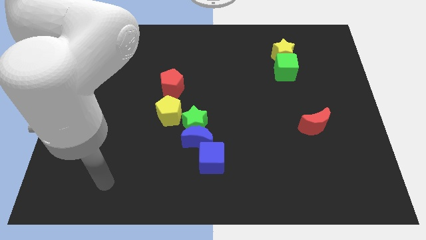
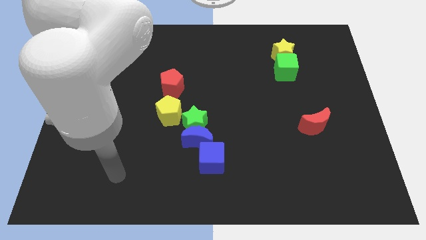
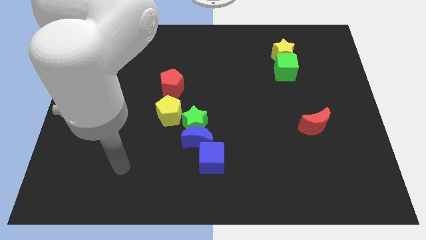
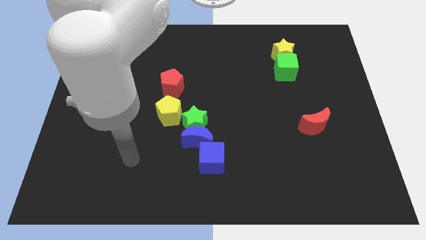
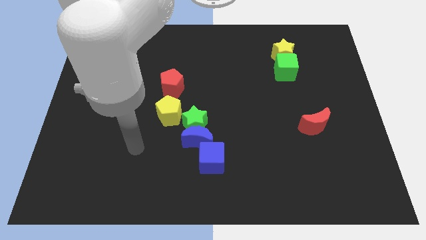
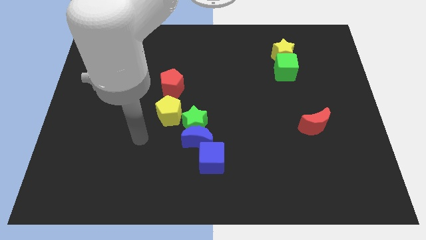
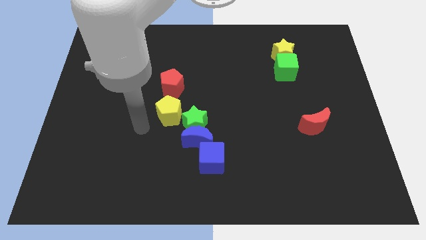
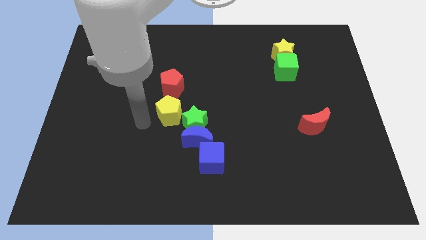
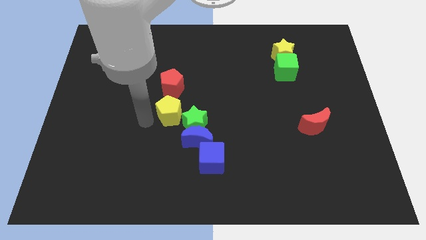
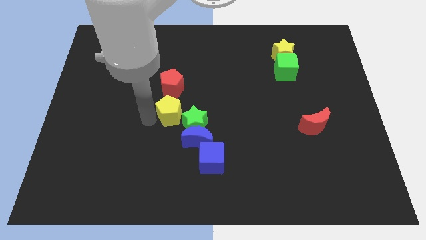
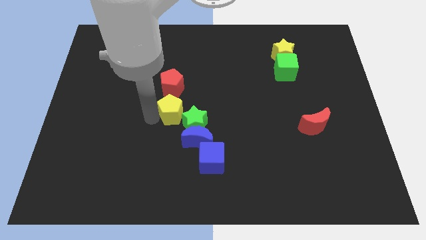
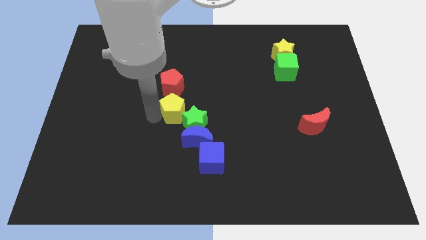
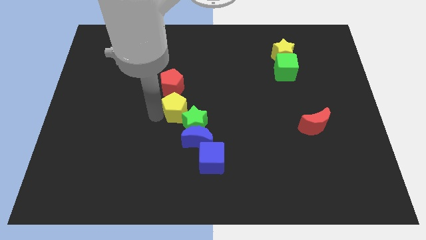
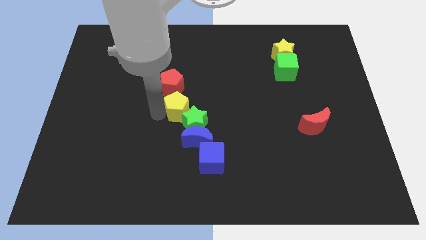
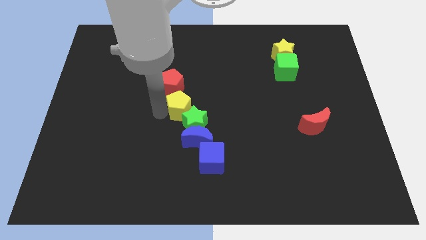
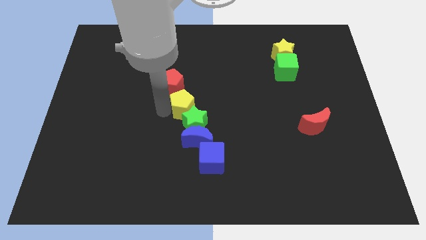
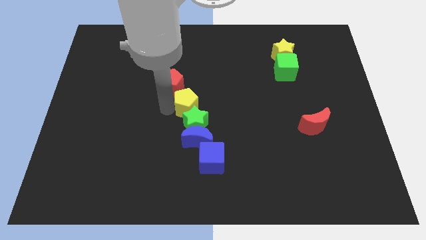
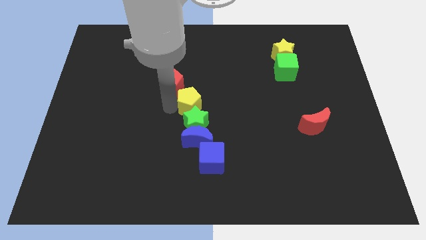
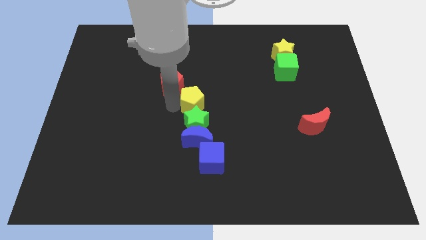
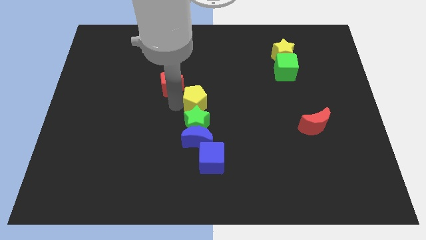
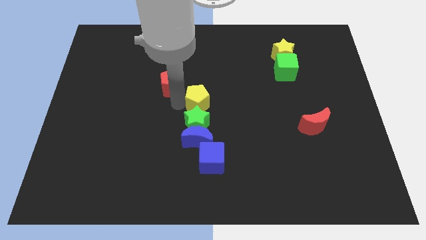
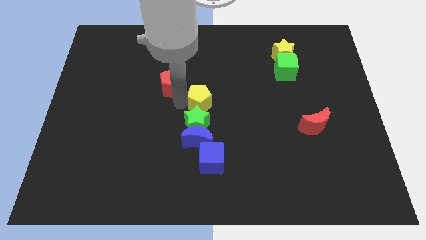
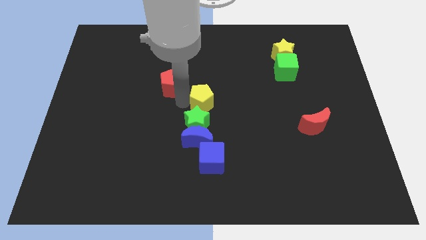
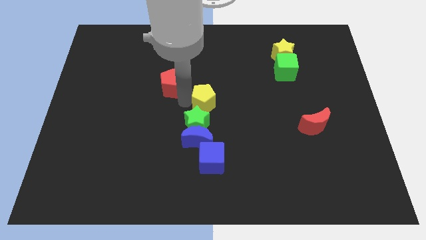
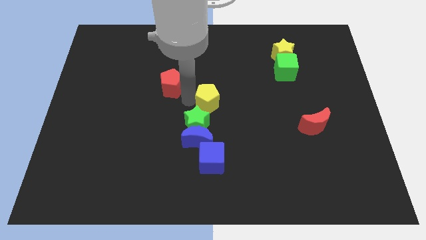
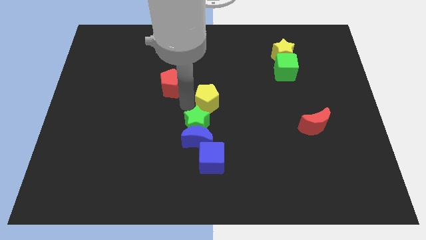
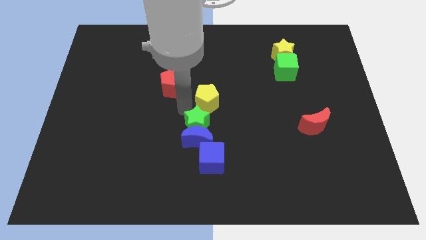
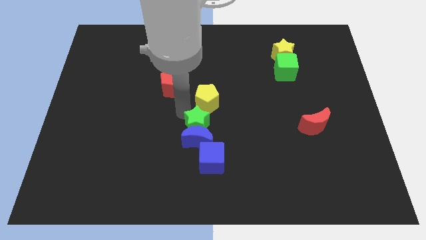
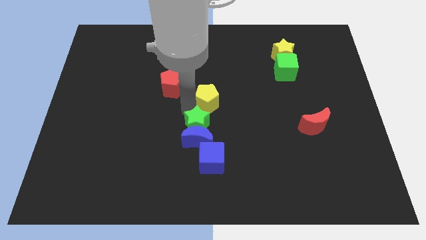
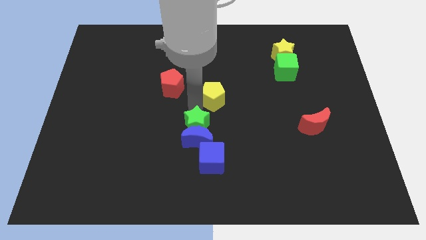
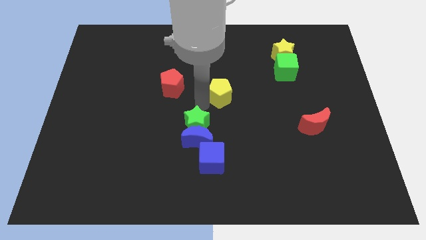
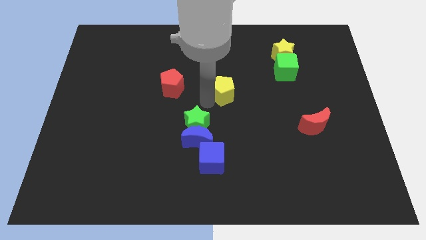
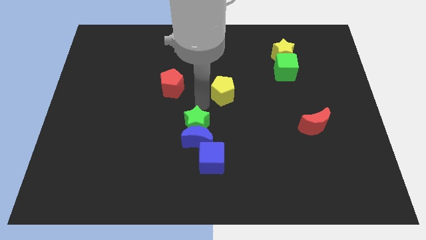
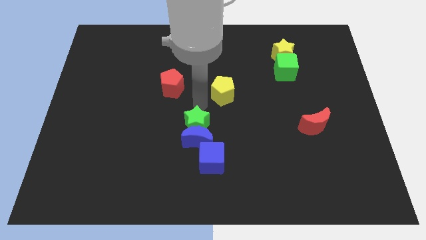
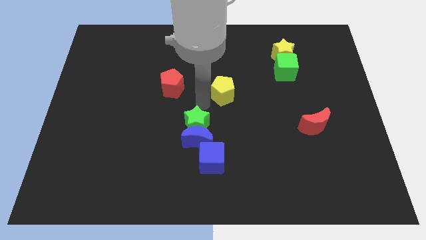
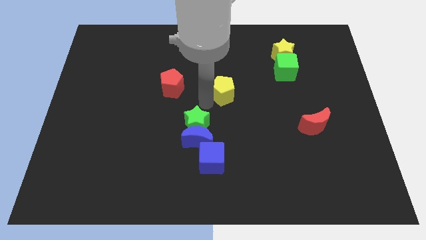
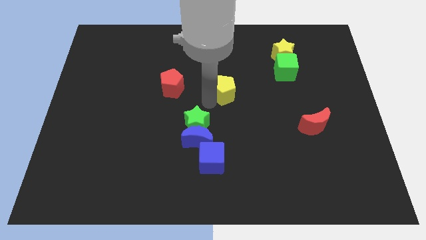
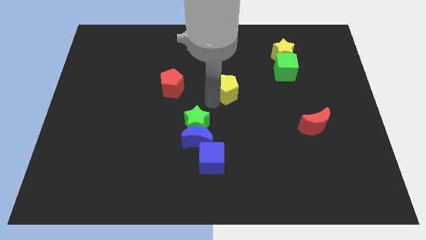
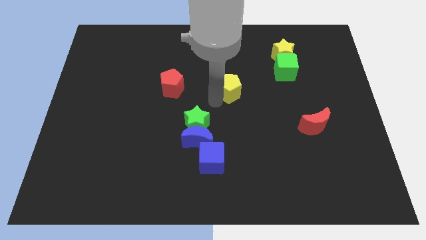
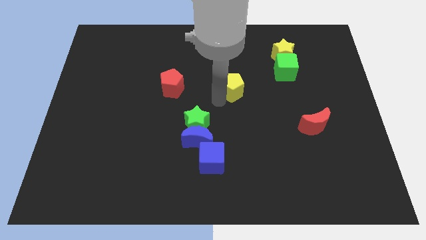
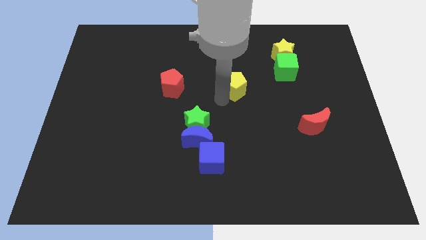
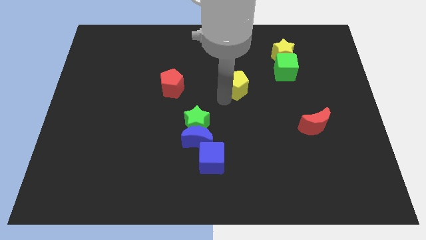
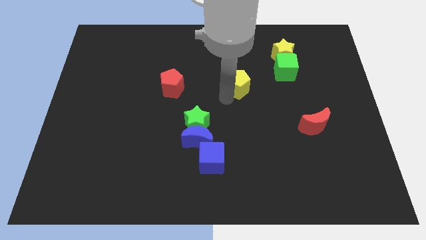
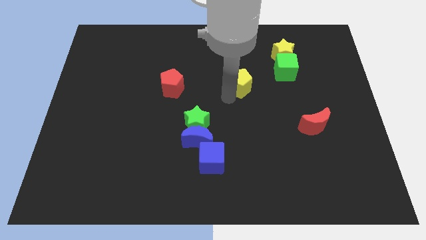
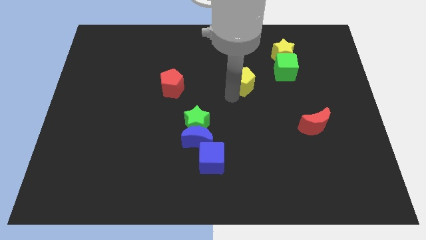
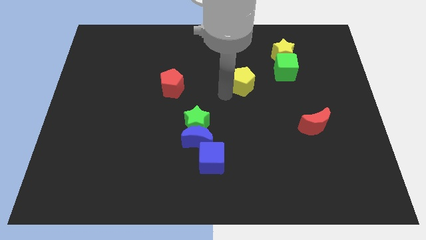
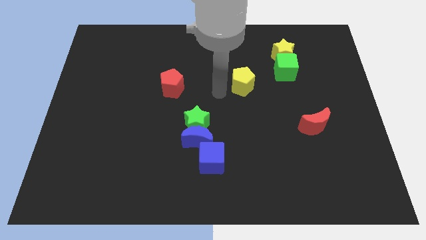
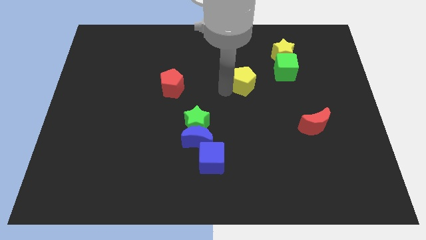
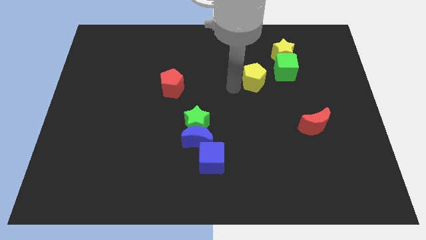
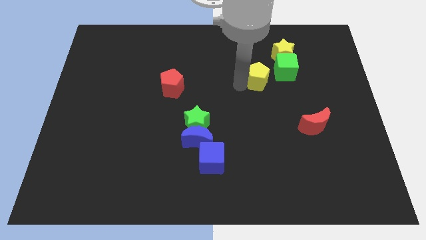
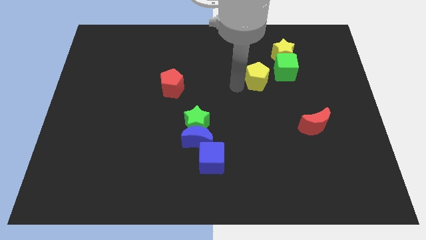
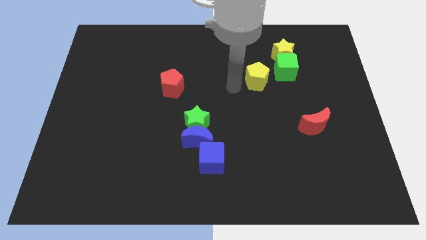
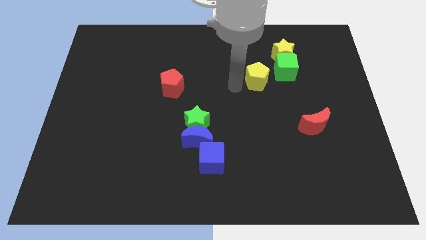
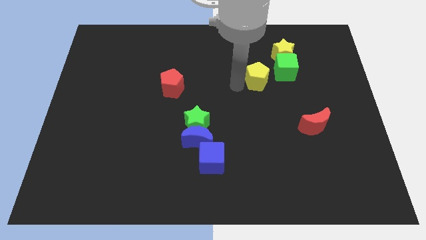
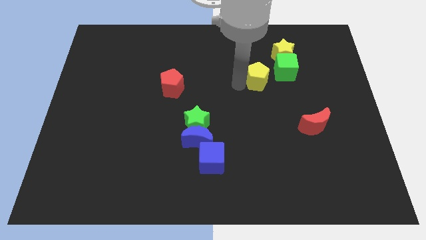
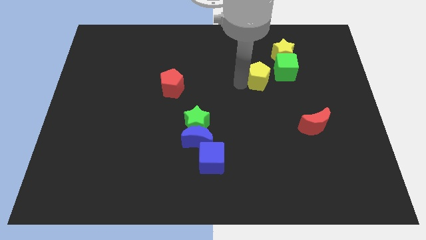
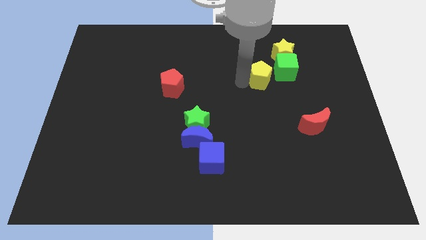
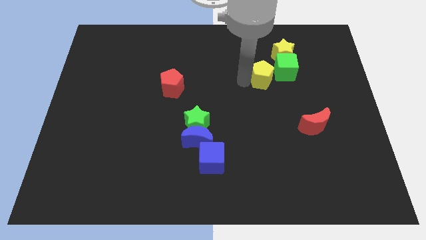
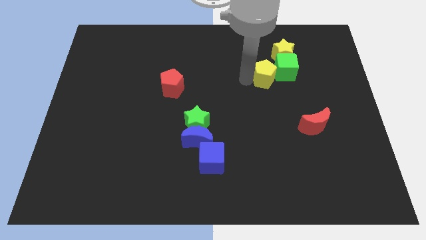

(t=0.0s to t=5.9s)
move the yellow pentagon to the green cube

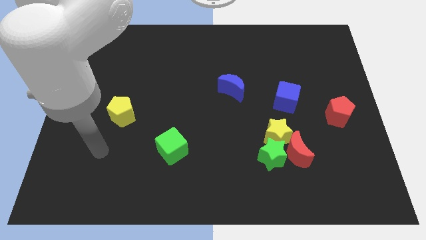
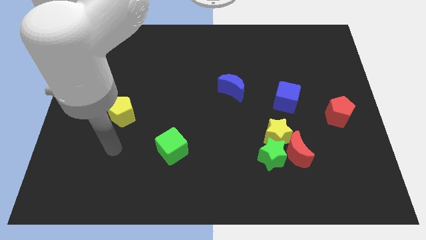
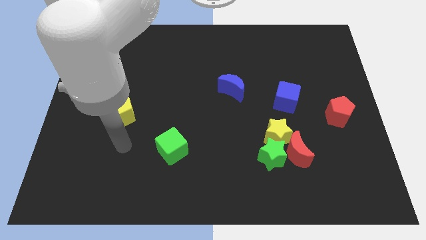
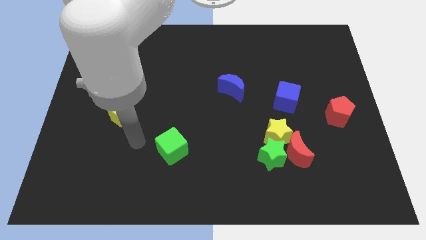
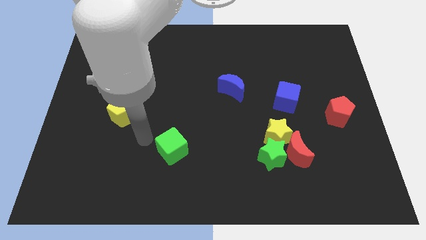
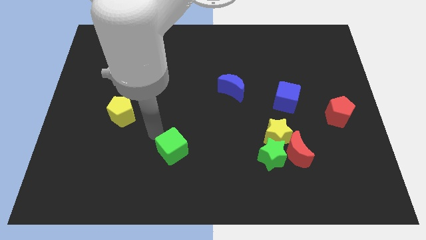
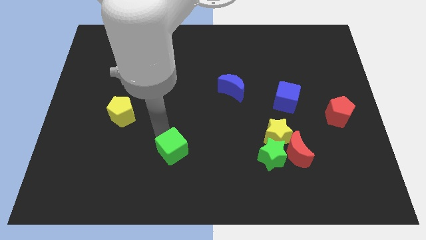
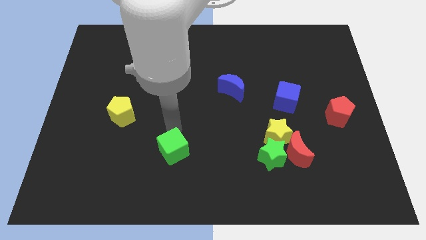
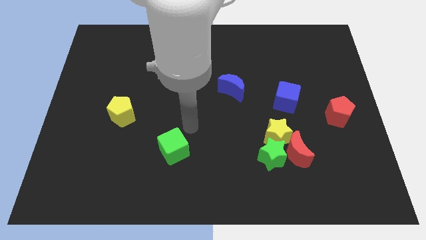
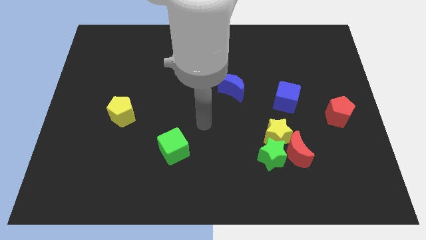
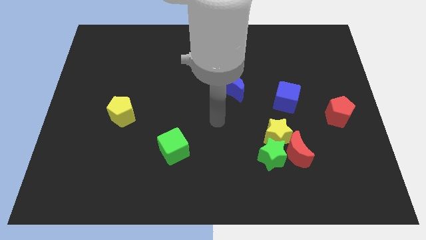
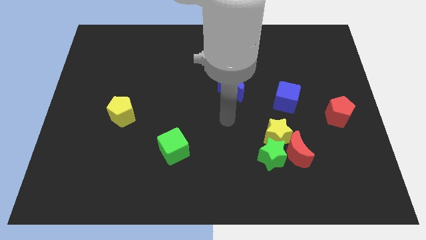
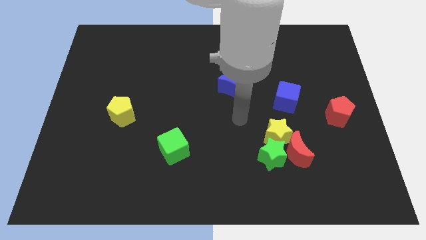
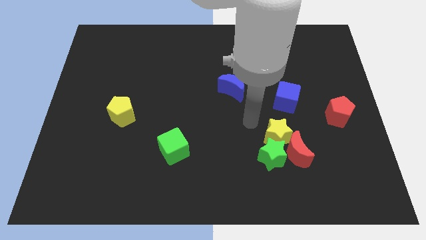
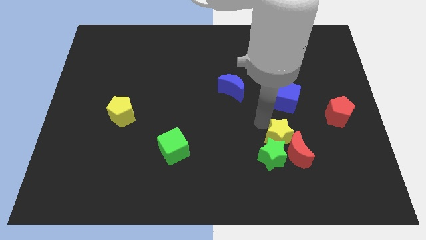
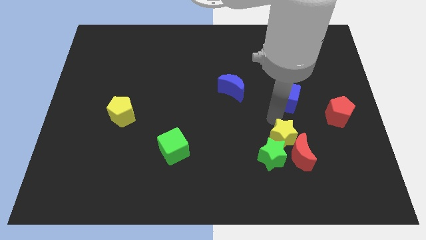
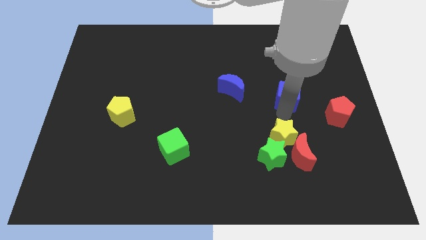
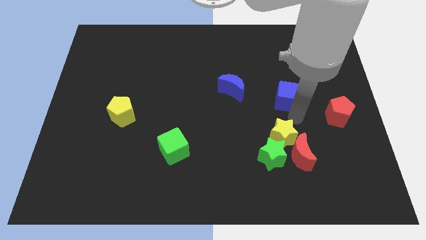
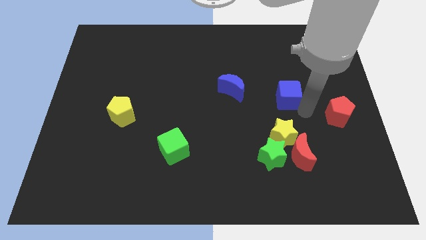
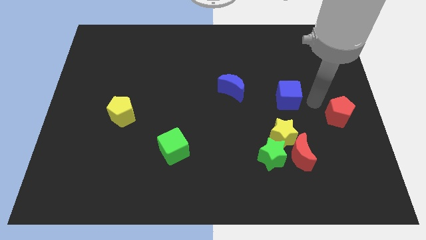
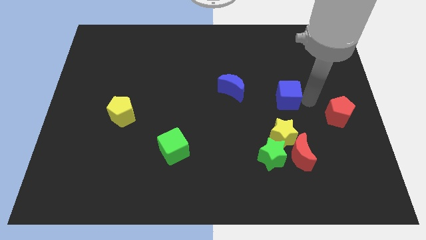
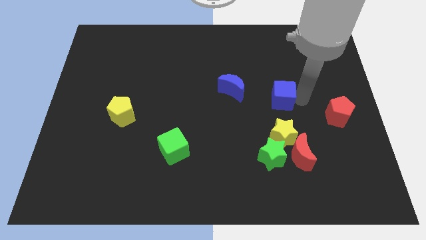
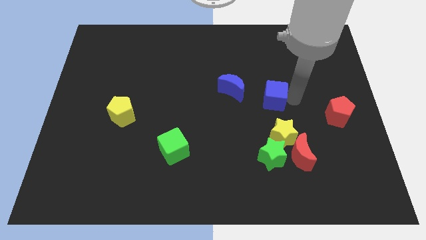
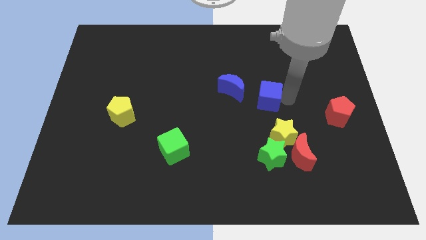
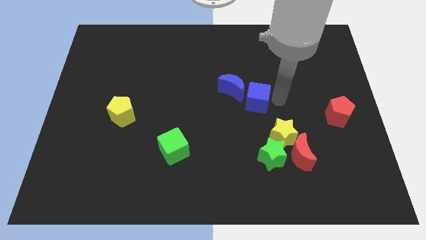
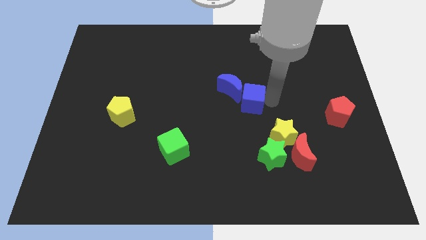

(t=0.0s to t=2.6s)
slide the blue cube next to the blue moon
